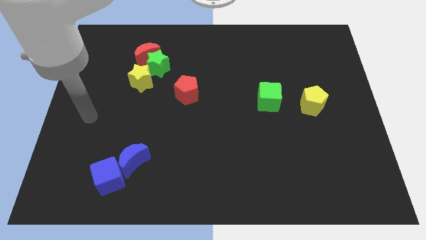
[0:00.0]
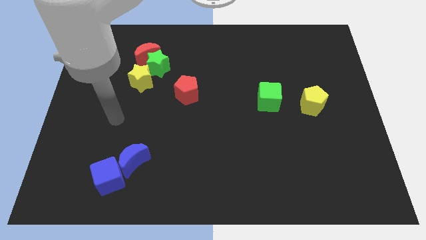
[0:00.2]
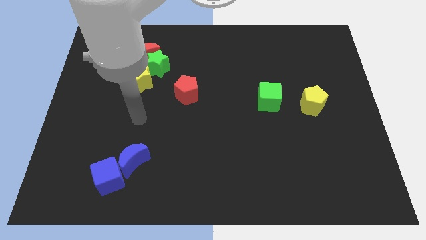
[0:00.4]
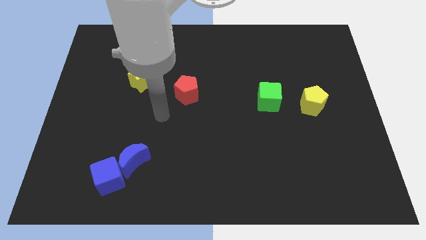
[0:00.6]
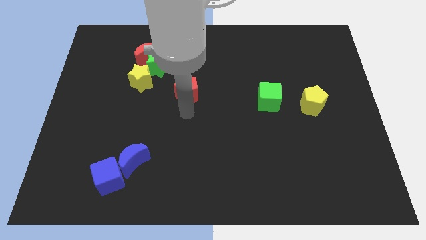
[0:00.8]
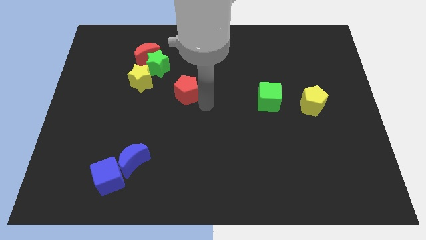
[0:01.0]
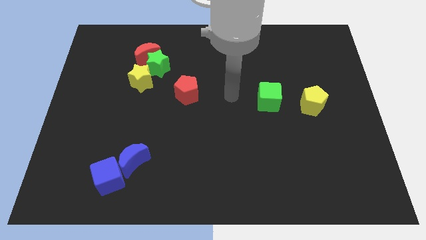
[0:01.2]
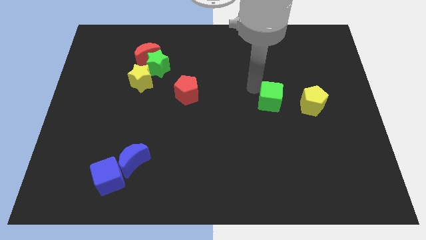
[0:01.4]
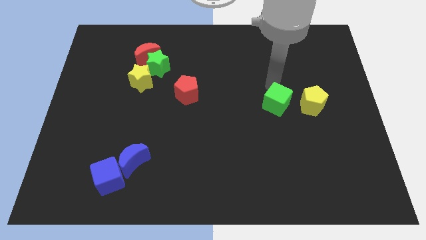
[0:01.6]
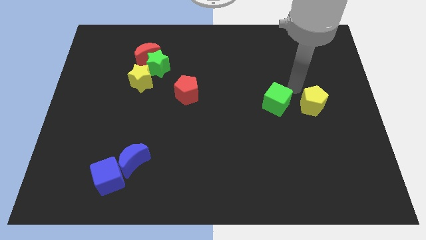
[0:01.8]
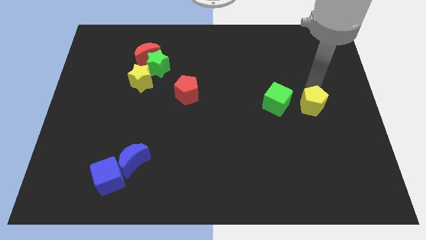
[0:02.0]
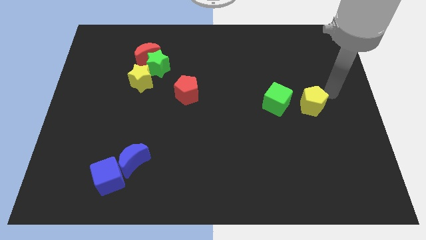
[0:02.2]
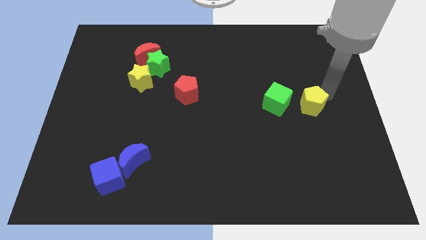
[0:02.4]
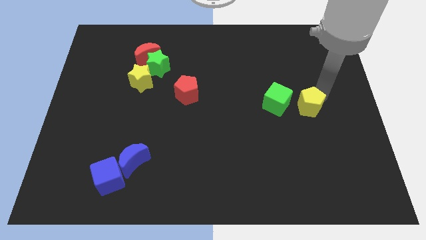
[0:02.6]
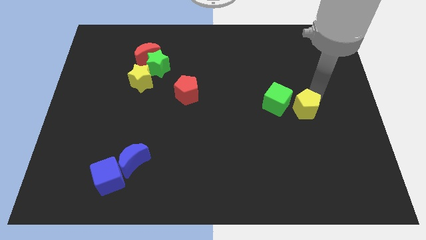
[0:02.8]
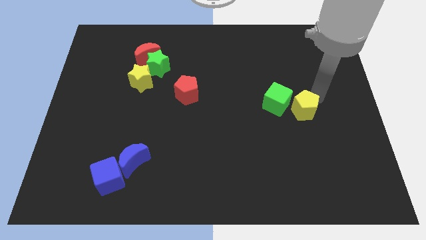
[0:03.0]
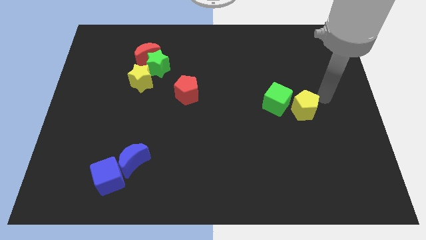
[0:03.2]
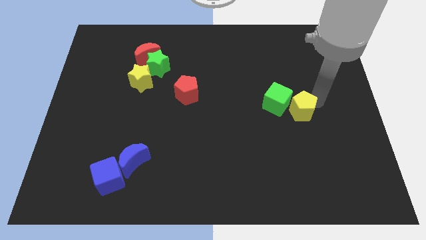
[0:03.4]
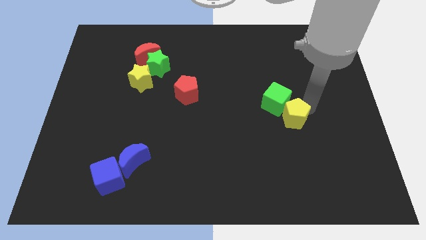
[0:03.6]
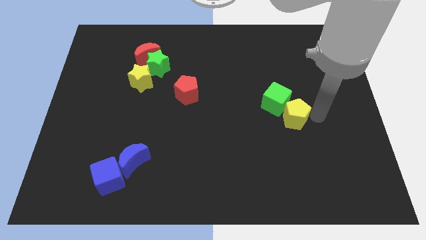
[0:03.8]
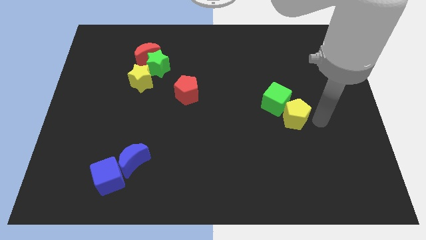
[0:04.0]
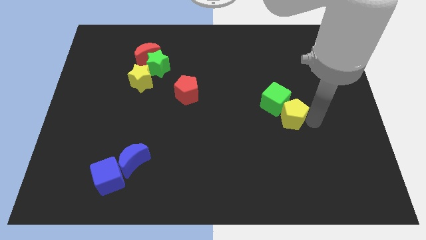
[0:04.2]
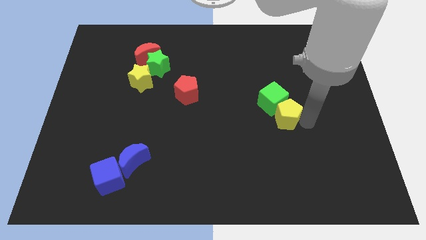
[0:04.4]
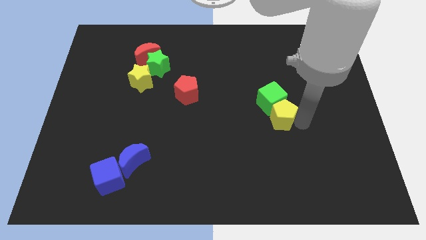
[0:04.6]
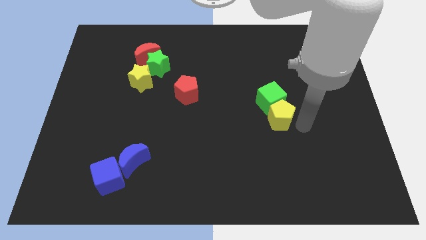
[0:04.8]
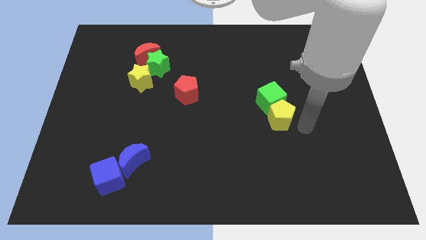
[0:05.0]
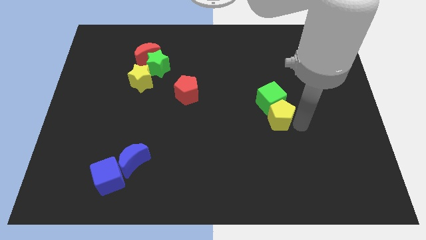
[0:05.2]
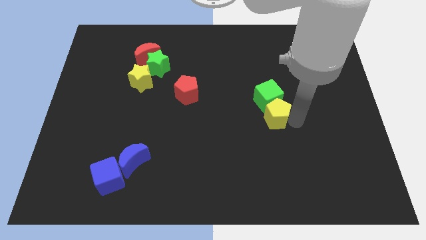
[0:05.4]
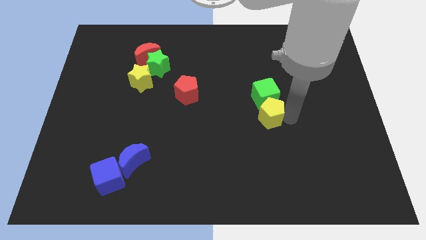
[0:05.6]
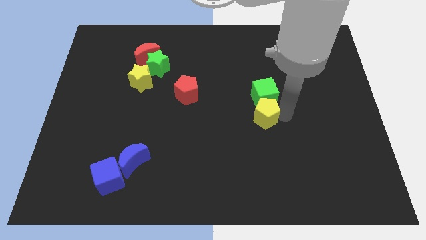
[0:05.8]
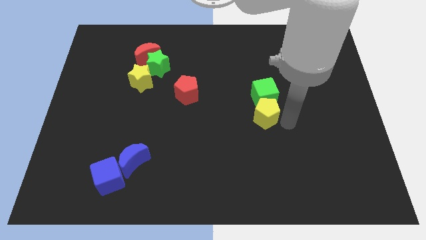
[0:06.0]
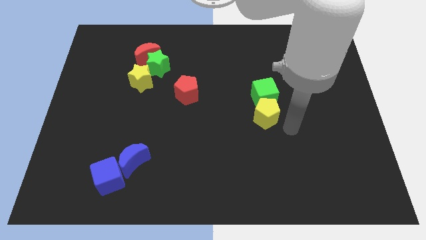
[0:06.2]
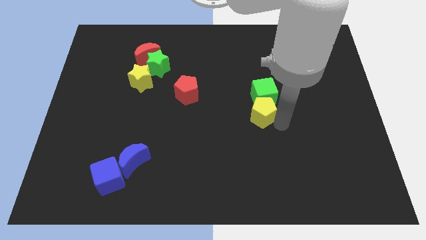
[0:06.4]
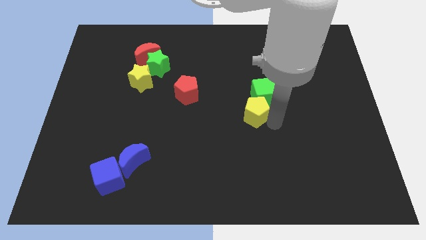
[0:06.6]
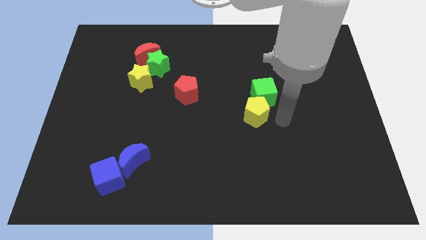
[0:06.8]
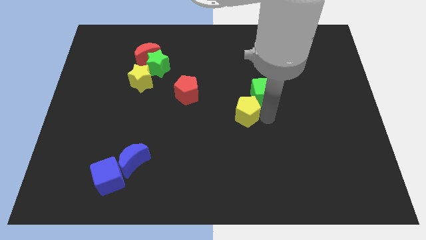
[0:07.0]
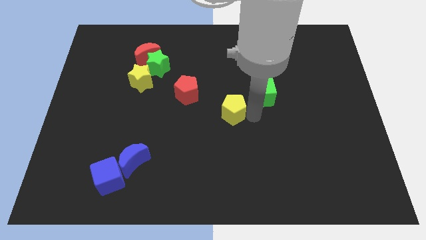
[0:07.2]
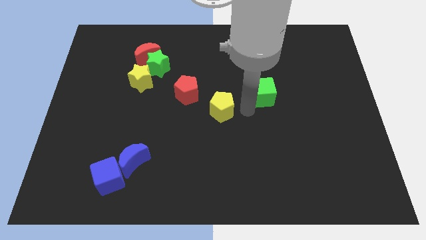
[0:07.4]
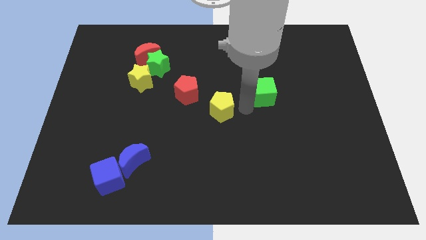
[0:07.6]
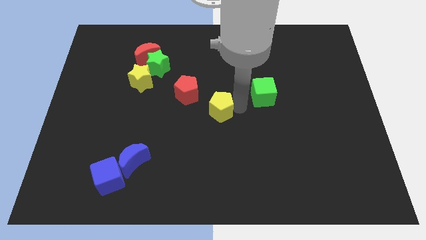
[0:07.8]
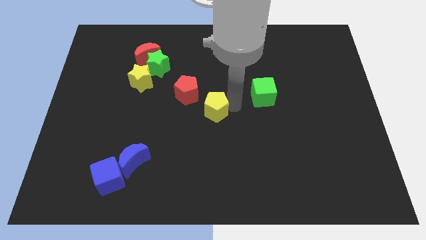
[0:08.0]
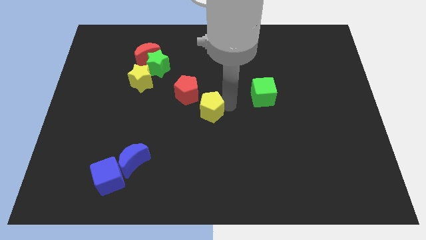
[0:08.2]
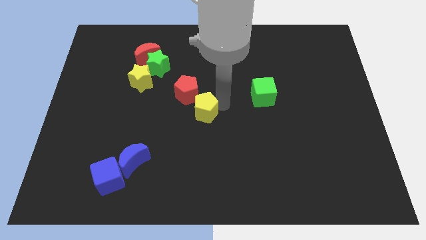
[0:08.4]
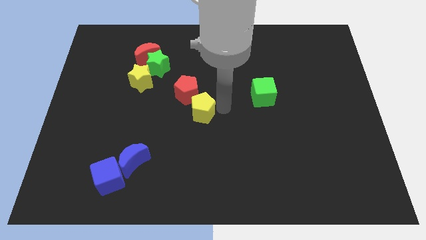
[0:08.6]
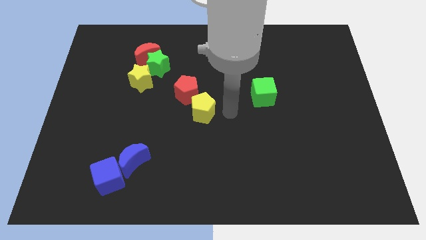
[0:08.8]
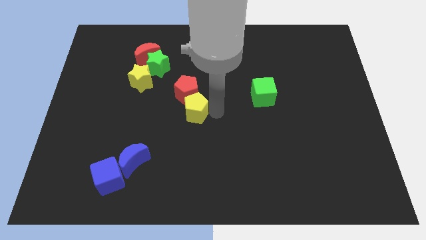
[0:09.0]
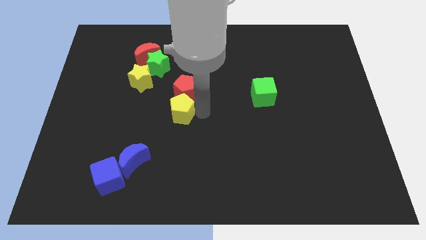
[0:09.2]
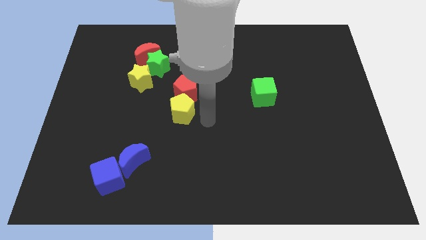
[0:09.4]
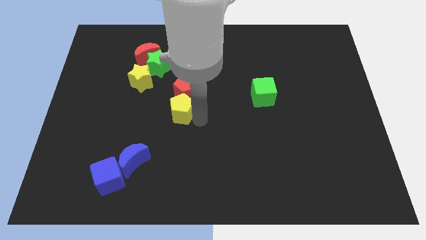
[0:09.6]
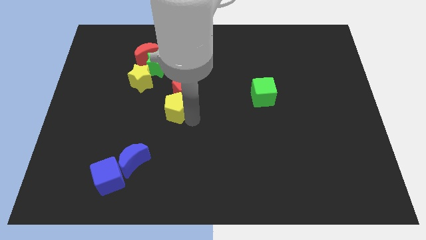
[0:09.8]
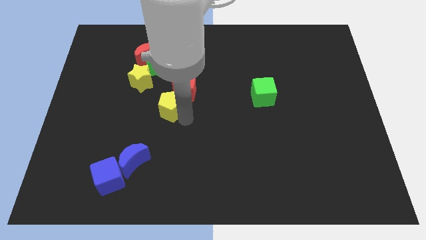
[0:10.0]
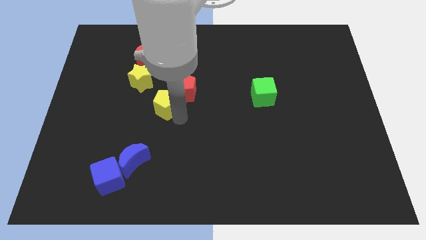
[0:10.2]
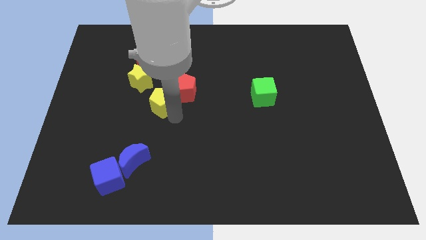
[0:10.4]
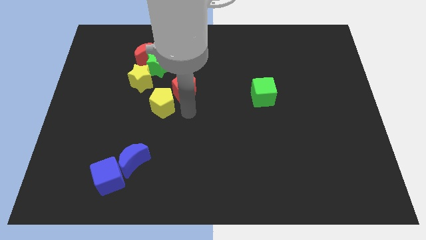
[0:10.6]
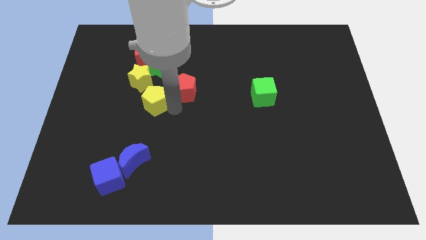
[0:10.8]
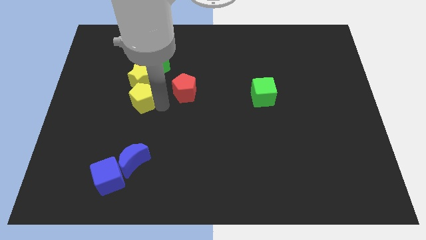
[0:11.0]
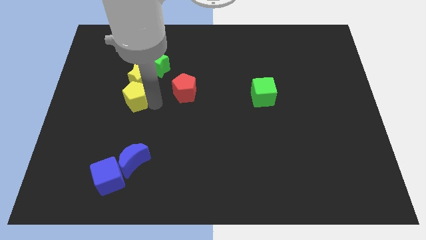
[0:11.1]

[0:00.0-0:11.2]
put the yellow pentagon to the bottom left side of the yellow star

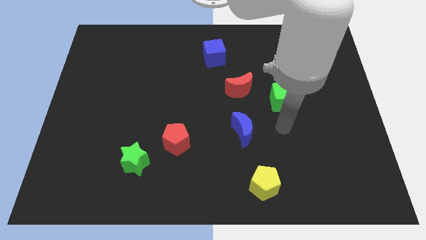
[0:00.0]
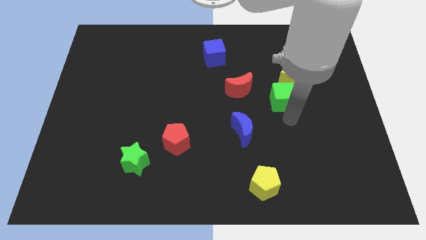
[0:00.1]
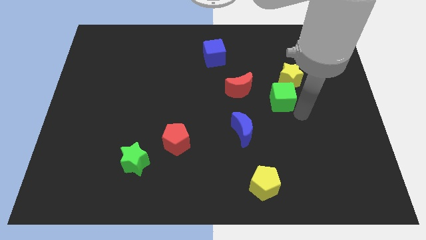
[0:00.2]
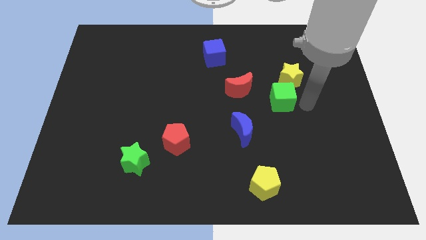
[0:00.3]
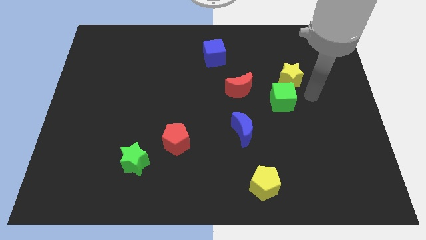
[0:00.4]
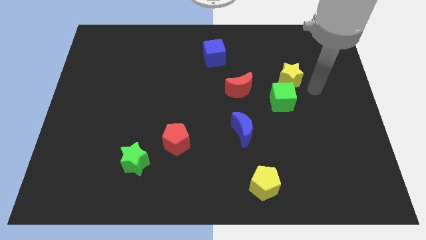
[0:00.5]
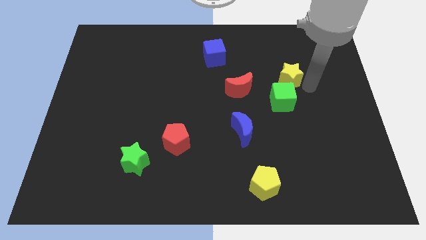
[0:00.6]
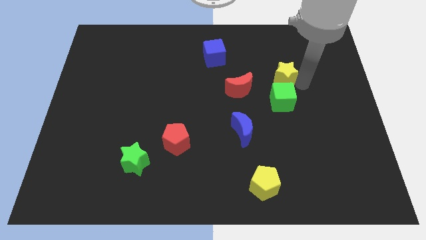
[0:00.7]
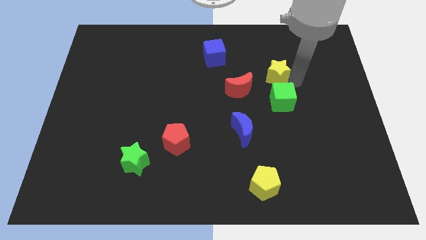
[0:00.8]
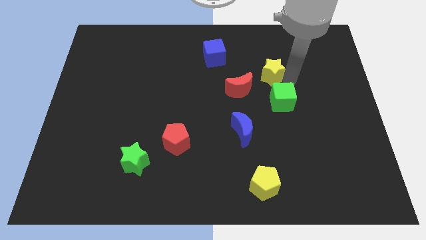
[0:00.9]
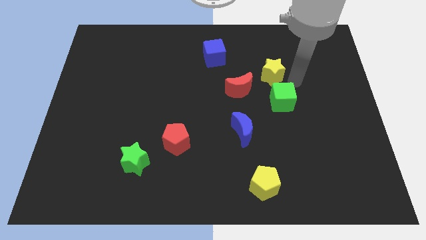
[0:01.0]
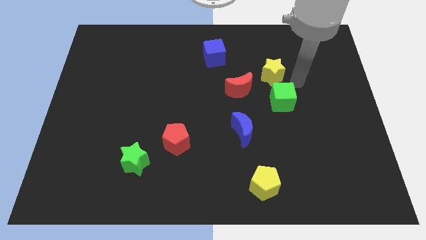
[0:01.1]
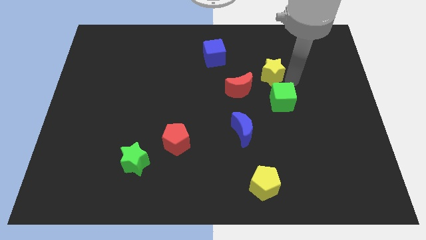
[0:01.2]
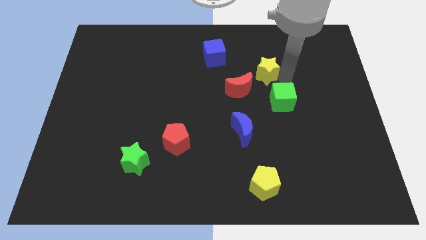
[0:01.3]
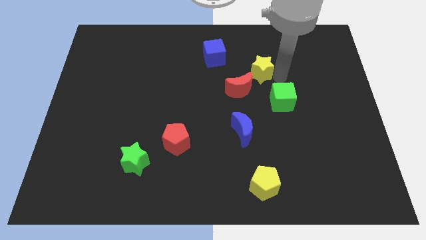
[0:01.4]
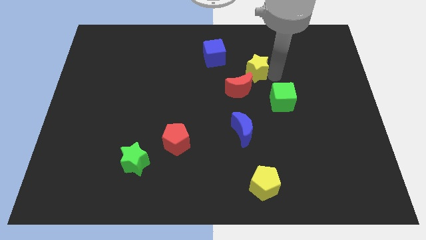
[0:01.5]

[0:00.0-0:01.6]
slide the yellow star to the top side of the red moon
